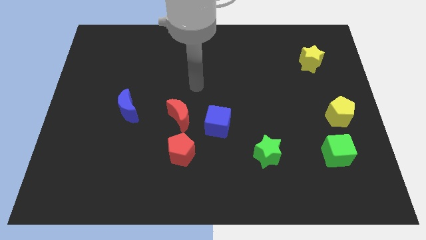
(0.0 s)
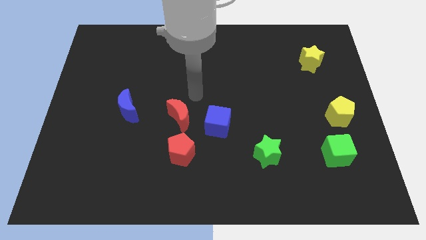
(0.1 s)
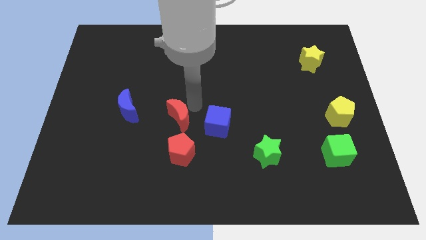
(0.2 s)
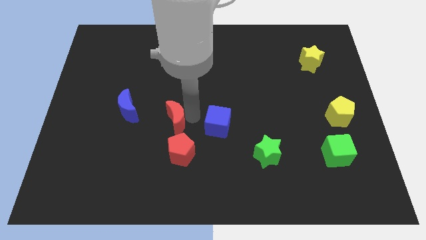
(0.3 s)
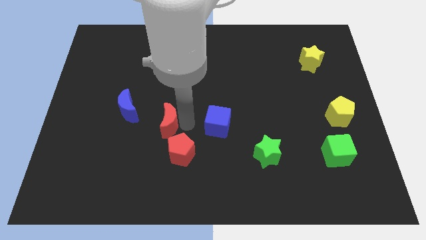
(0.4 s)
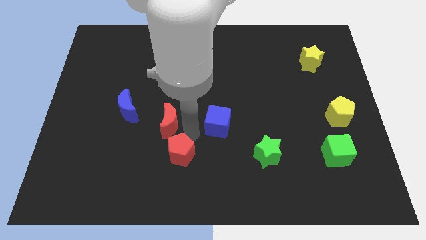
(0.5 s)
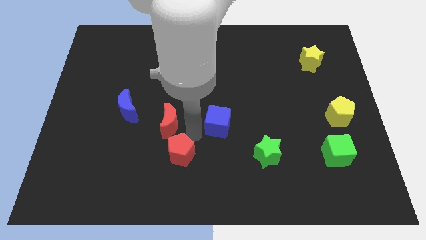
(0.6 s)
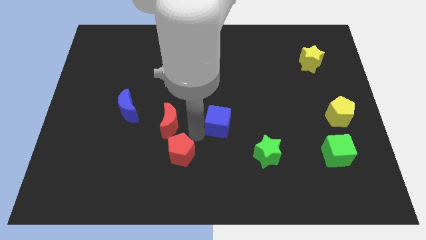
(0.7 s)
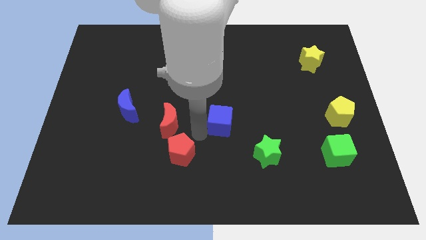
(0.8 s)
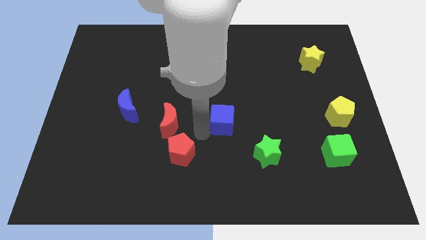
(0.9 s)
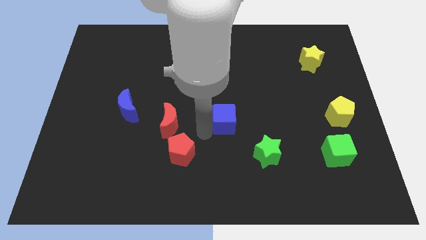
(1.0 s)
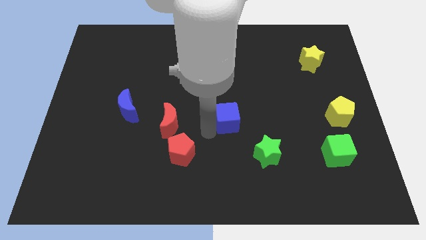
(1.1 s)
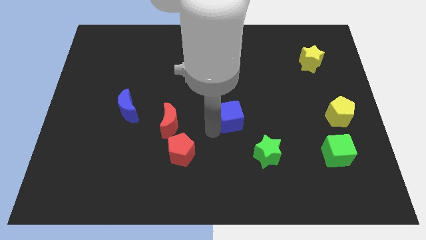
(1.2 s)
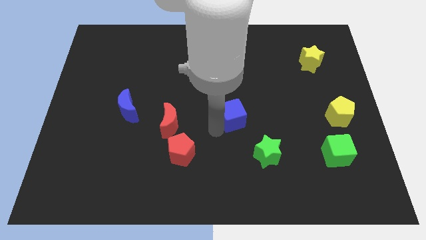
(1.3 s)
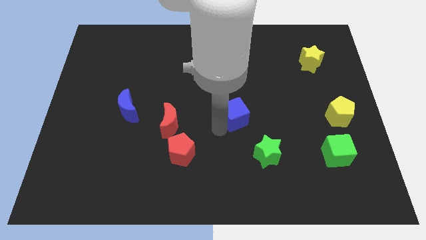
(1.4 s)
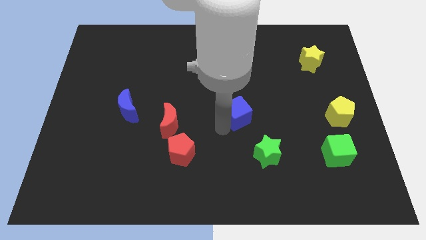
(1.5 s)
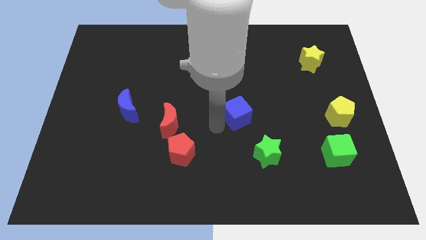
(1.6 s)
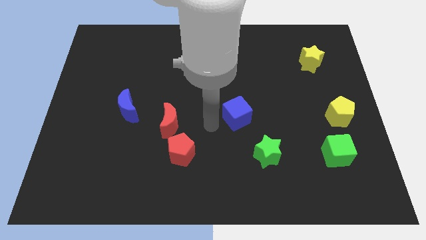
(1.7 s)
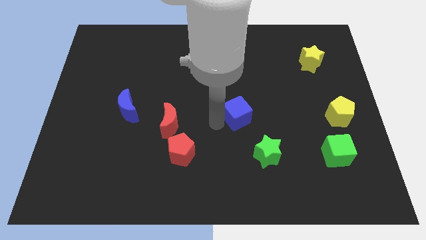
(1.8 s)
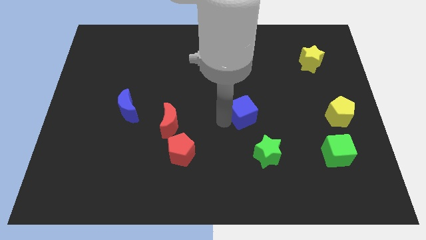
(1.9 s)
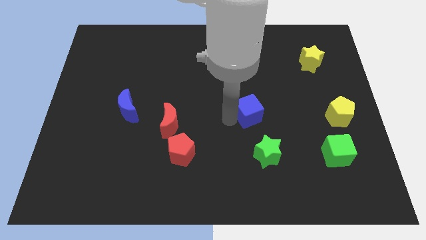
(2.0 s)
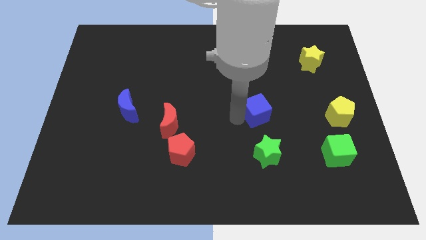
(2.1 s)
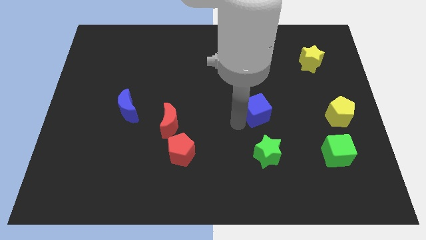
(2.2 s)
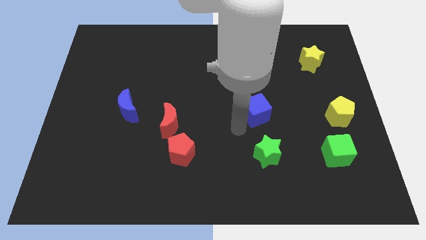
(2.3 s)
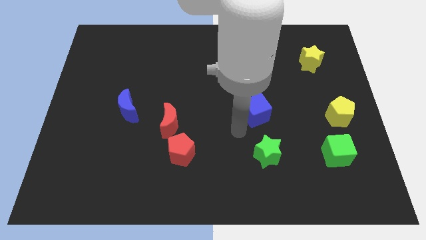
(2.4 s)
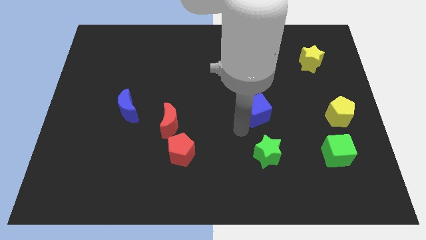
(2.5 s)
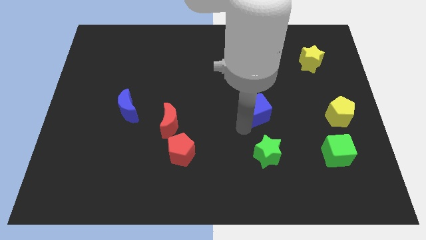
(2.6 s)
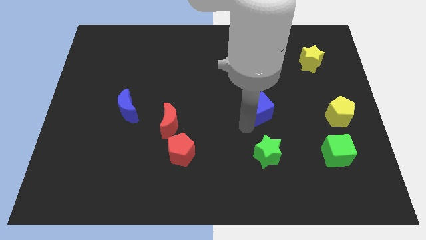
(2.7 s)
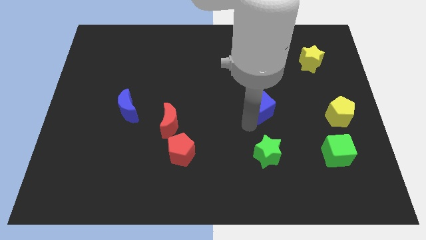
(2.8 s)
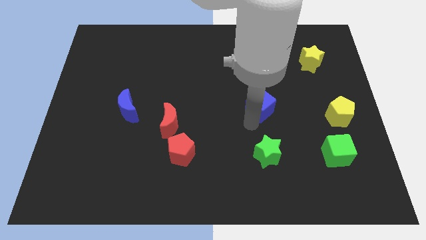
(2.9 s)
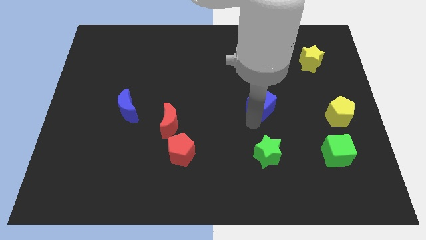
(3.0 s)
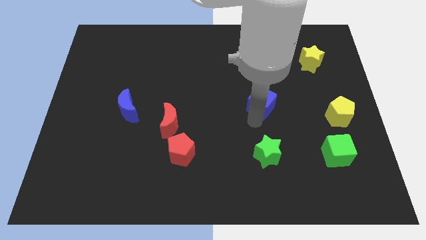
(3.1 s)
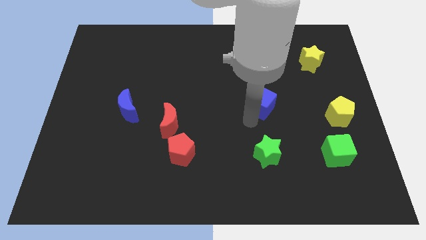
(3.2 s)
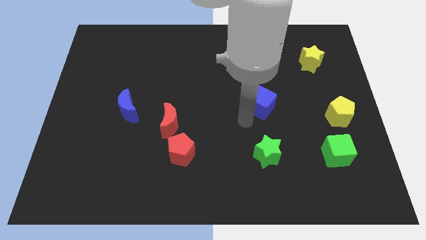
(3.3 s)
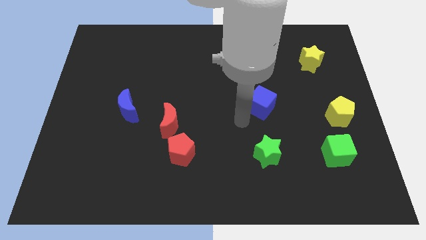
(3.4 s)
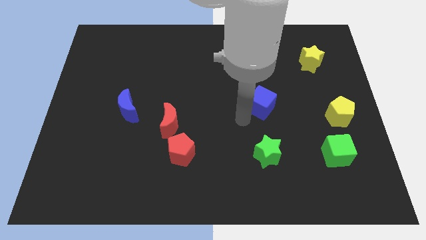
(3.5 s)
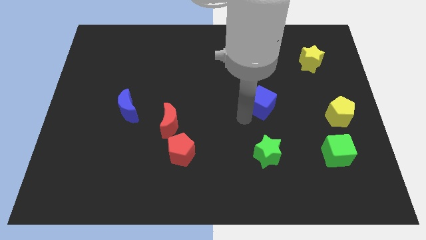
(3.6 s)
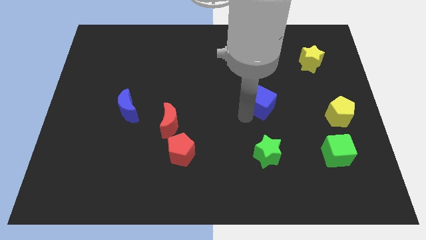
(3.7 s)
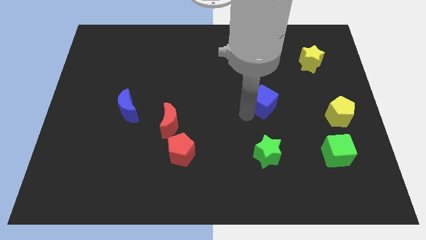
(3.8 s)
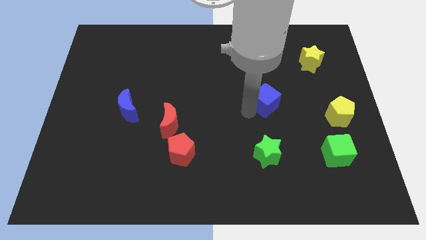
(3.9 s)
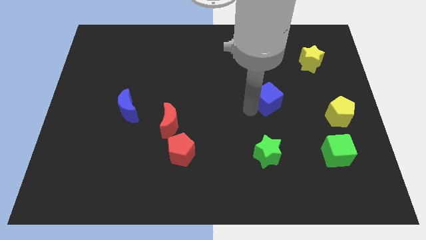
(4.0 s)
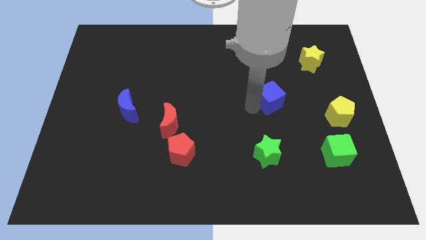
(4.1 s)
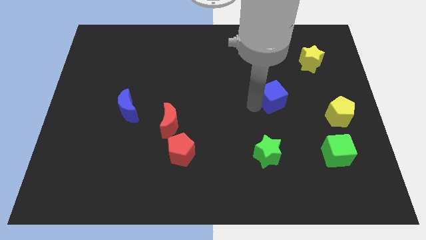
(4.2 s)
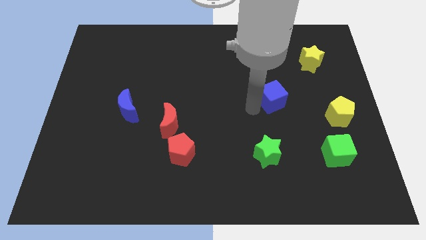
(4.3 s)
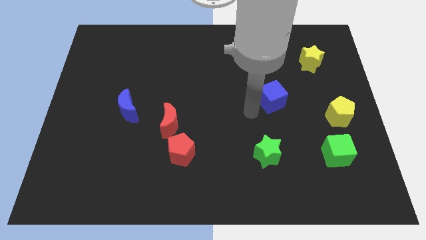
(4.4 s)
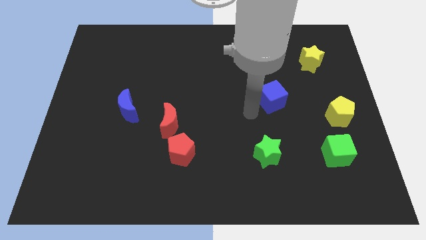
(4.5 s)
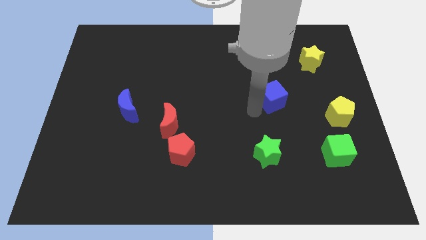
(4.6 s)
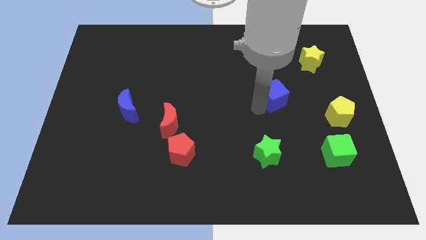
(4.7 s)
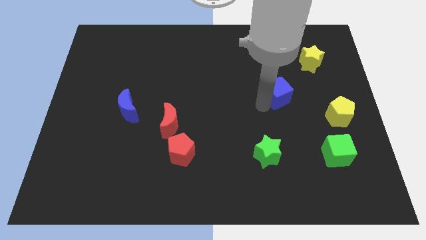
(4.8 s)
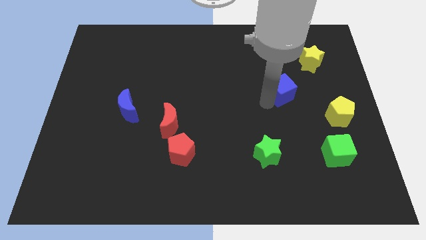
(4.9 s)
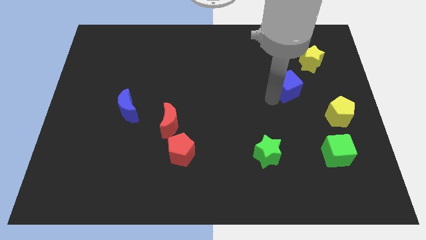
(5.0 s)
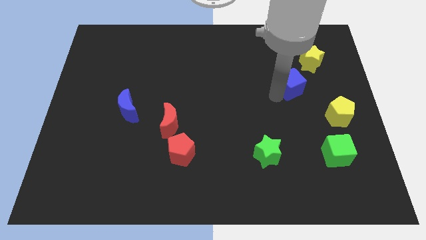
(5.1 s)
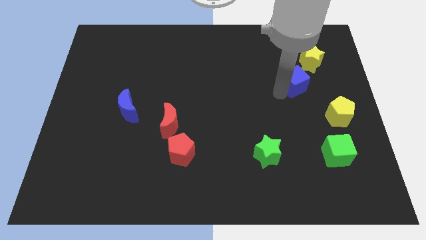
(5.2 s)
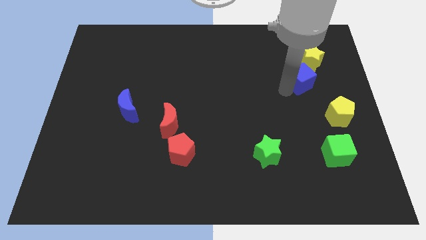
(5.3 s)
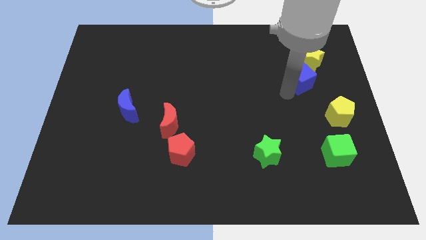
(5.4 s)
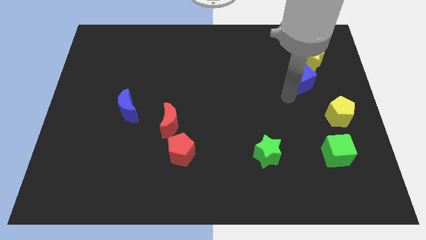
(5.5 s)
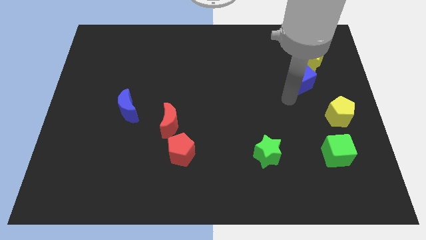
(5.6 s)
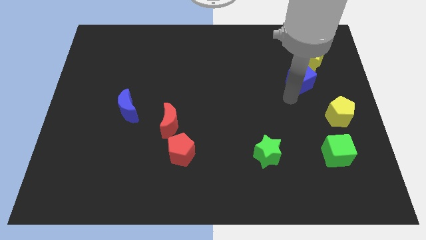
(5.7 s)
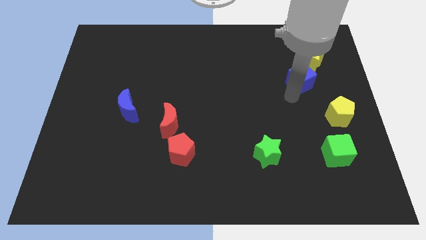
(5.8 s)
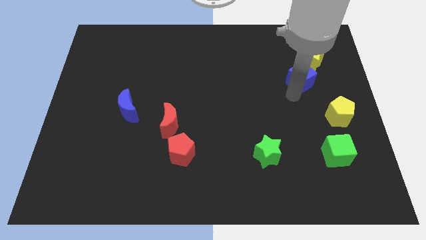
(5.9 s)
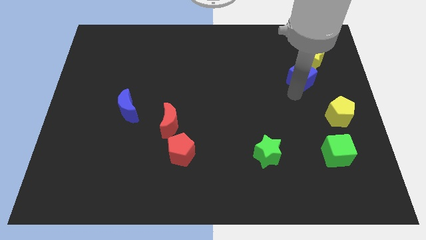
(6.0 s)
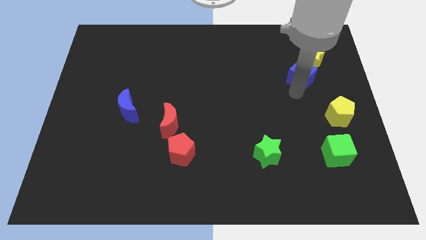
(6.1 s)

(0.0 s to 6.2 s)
move the blue cube next to the yellow star
